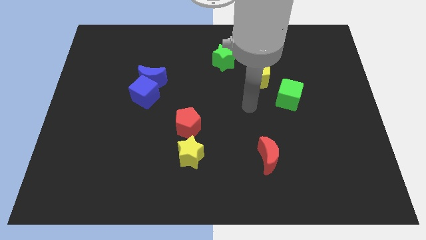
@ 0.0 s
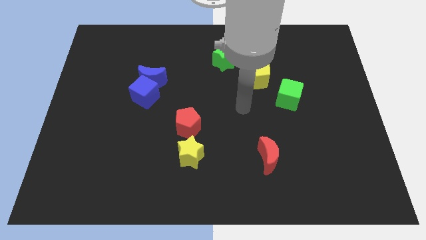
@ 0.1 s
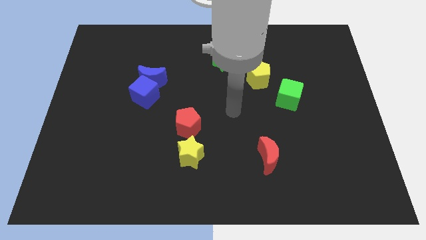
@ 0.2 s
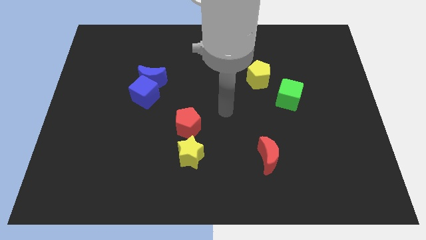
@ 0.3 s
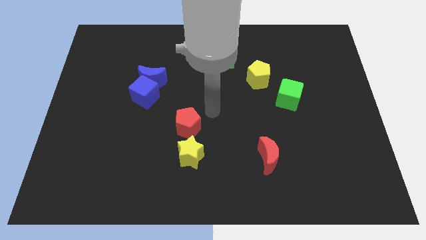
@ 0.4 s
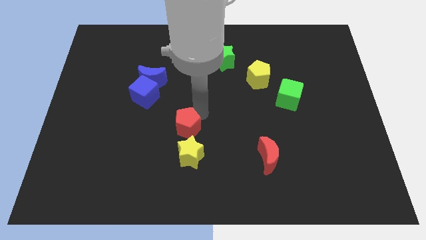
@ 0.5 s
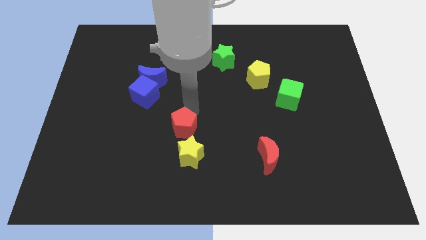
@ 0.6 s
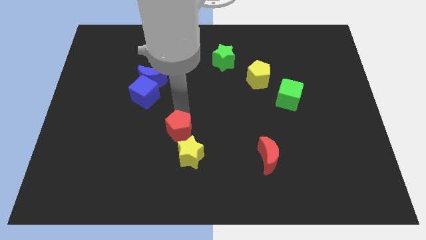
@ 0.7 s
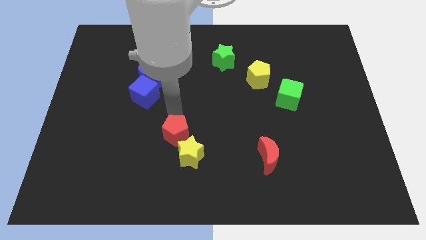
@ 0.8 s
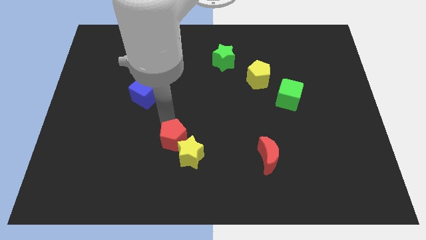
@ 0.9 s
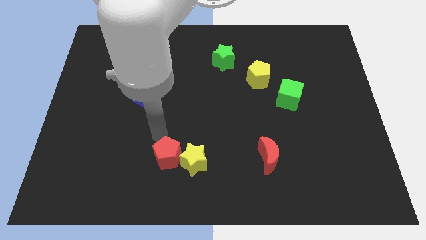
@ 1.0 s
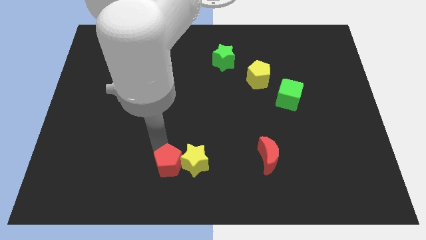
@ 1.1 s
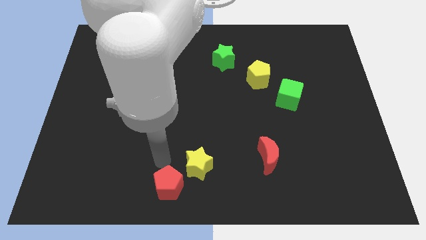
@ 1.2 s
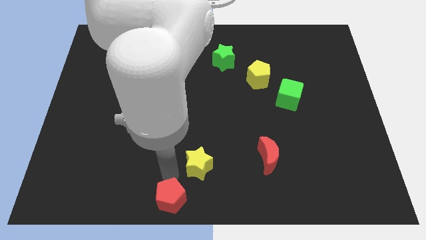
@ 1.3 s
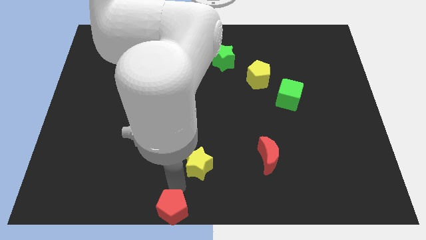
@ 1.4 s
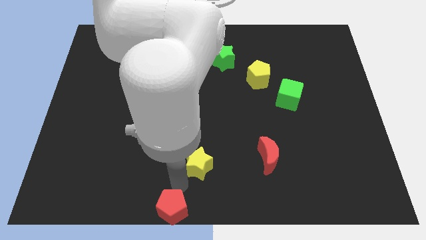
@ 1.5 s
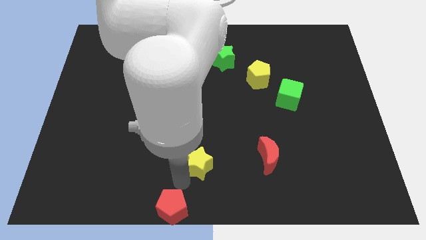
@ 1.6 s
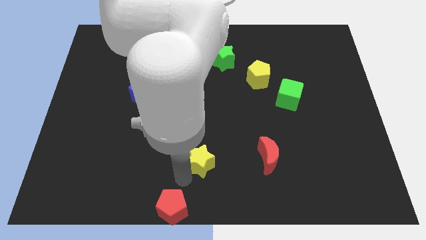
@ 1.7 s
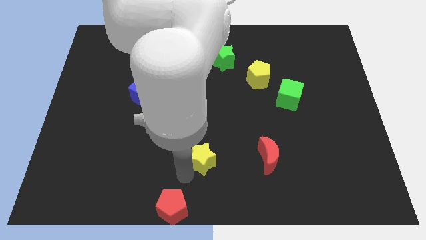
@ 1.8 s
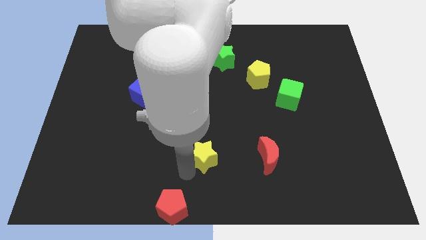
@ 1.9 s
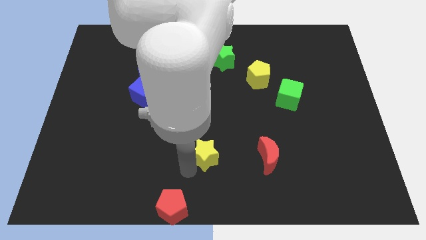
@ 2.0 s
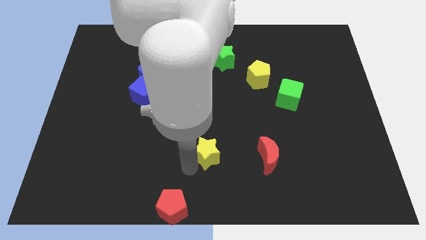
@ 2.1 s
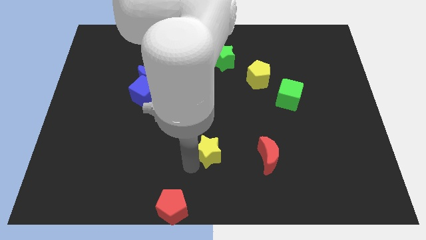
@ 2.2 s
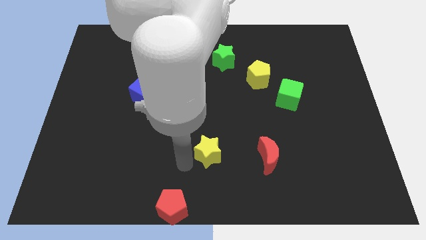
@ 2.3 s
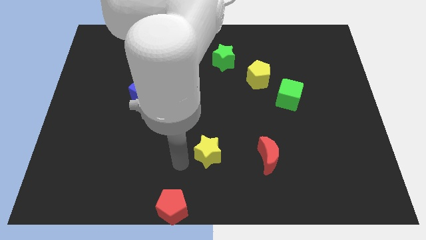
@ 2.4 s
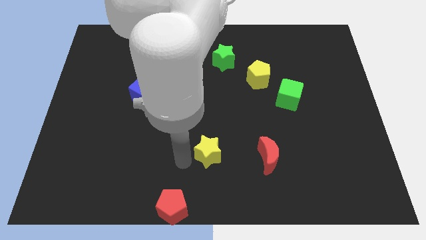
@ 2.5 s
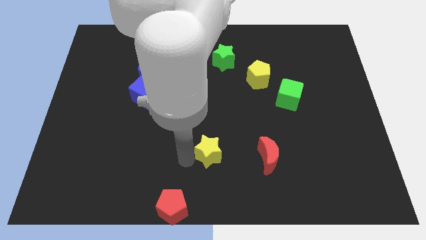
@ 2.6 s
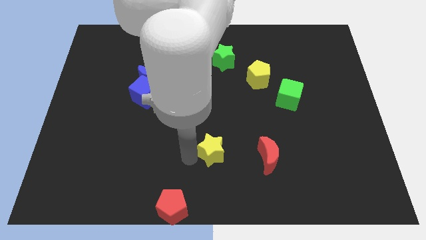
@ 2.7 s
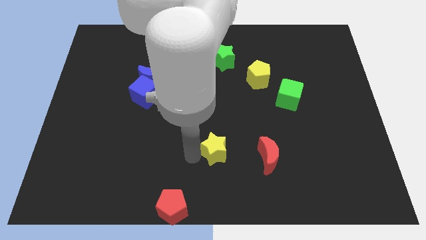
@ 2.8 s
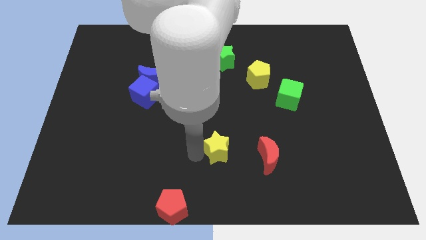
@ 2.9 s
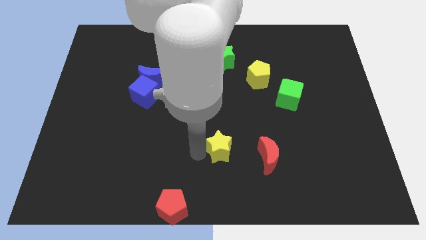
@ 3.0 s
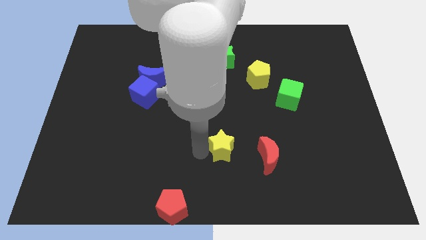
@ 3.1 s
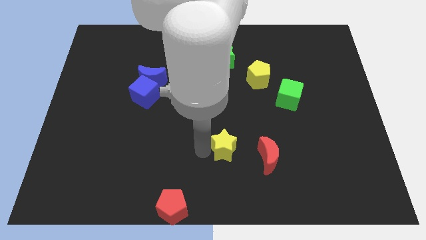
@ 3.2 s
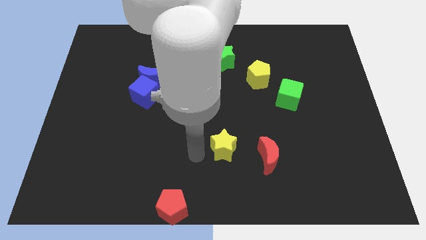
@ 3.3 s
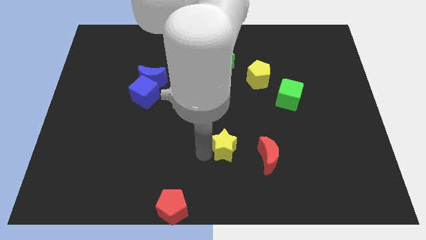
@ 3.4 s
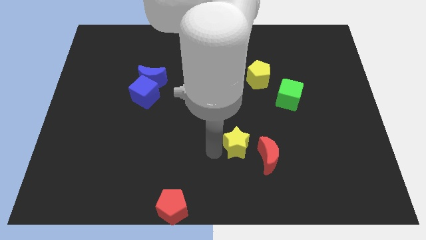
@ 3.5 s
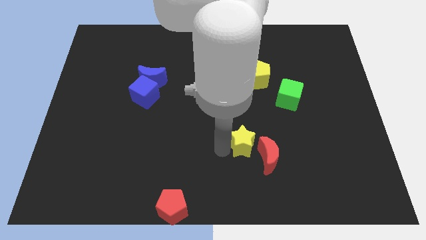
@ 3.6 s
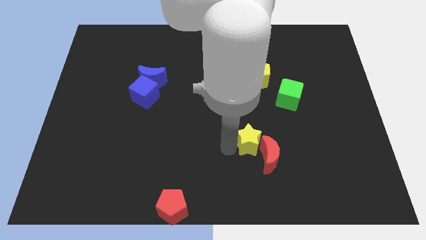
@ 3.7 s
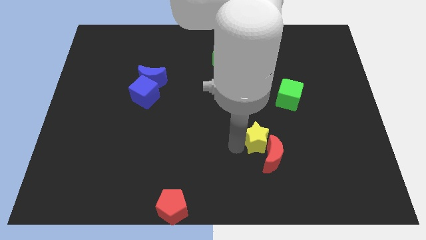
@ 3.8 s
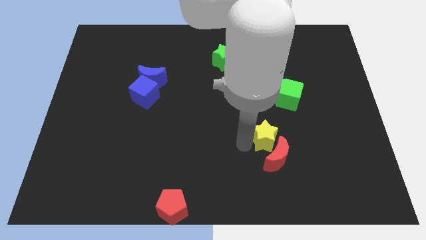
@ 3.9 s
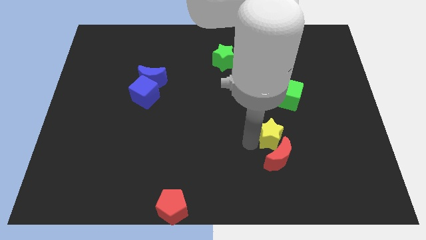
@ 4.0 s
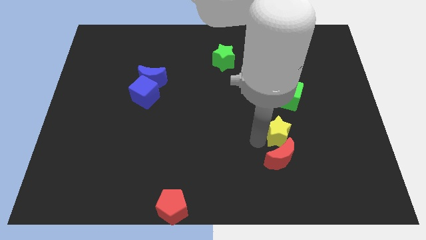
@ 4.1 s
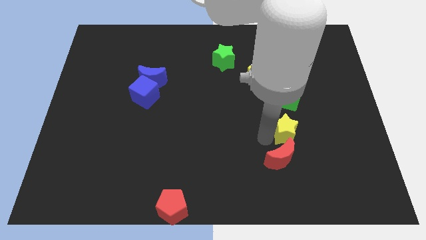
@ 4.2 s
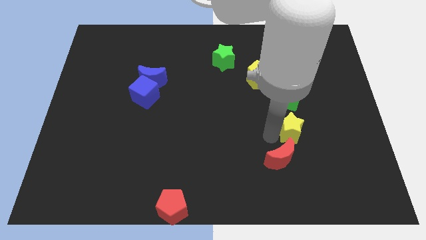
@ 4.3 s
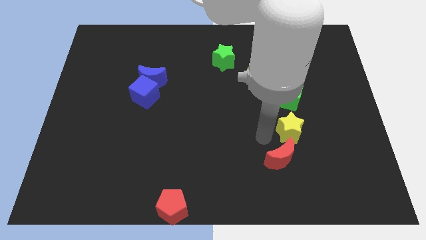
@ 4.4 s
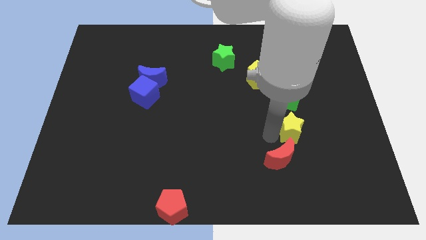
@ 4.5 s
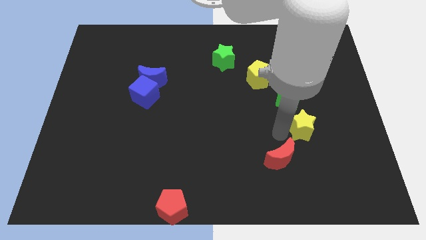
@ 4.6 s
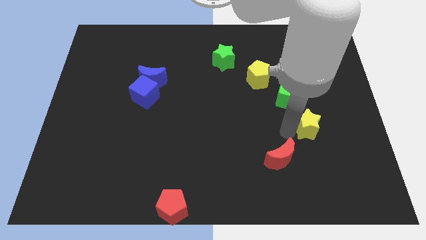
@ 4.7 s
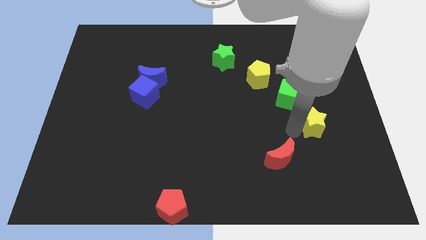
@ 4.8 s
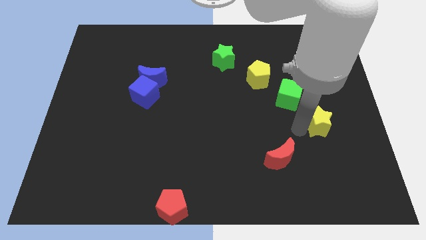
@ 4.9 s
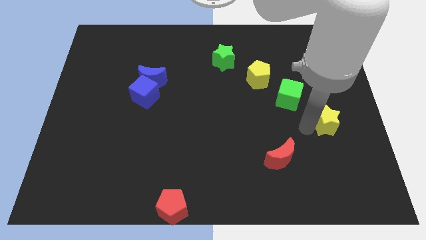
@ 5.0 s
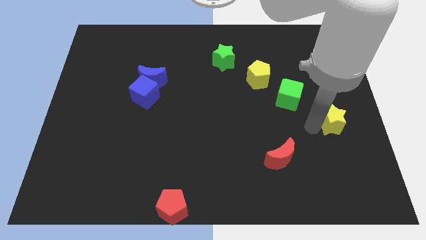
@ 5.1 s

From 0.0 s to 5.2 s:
push the yellow star to the center right

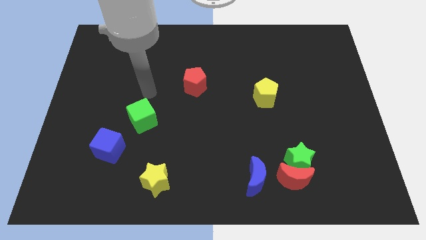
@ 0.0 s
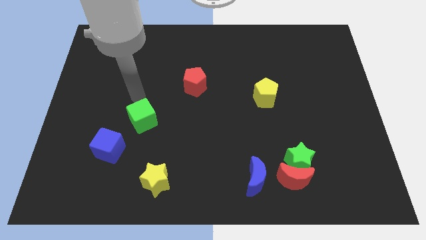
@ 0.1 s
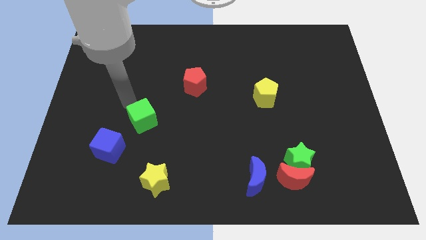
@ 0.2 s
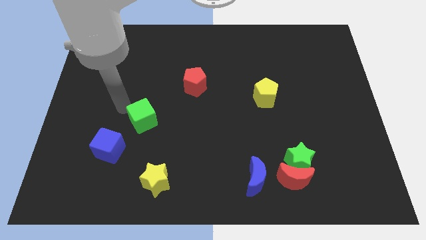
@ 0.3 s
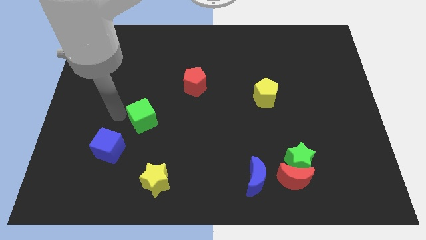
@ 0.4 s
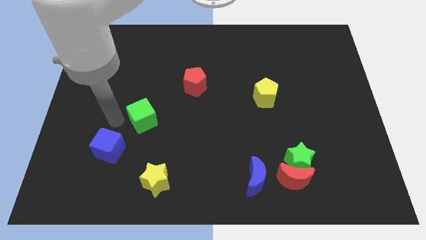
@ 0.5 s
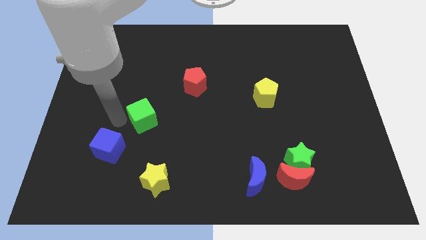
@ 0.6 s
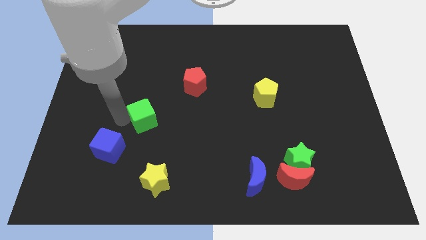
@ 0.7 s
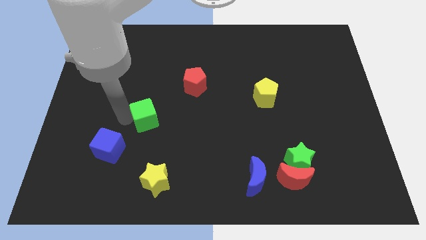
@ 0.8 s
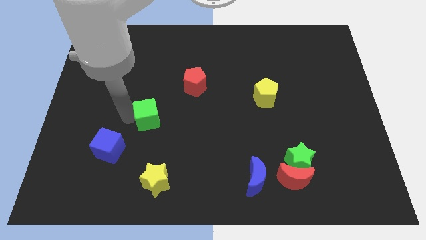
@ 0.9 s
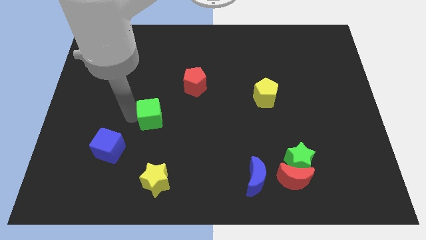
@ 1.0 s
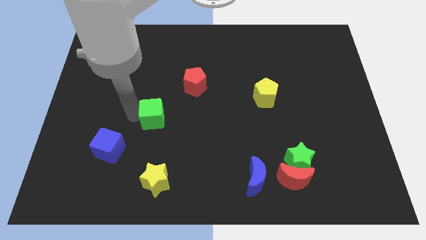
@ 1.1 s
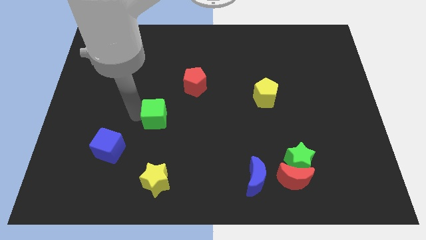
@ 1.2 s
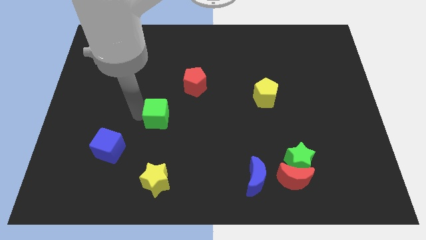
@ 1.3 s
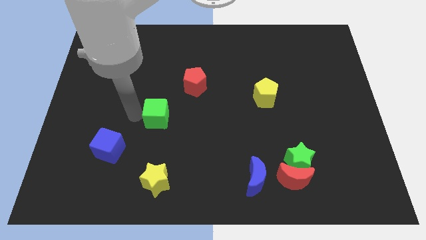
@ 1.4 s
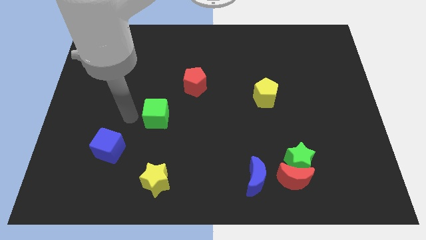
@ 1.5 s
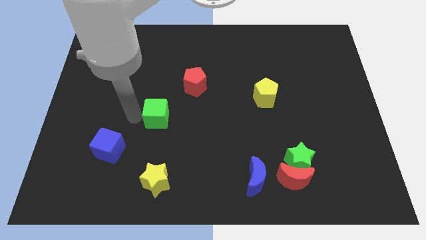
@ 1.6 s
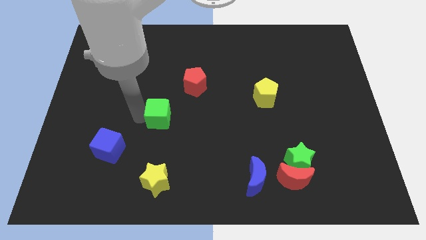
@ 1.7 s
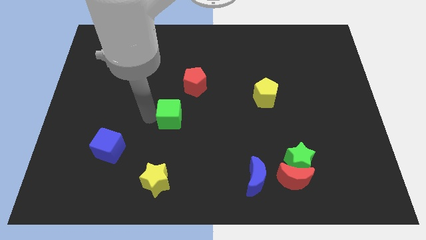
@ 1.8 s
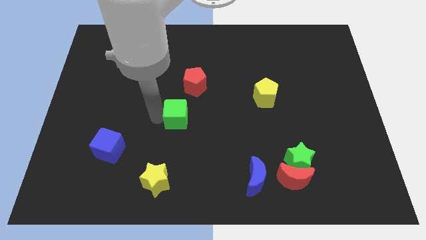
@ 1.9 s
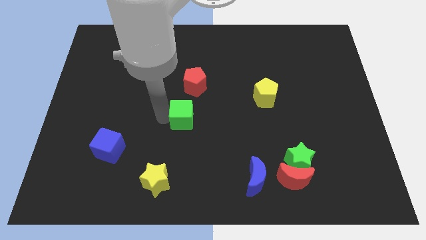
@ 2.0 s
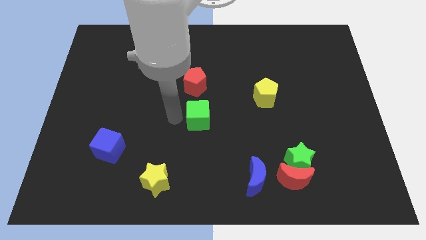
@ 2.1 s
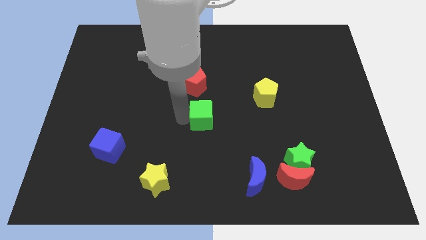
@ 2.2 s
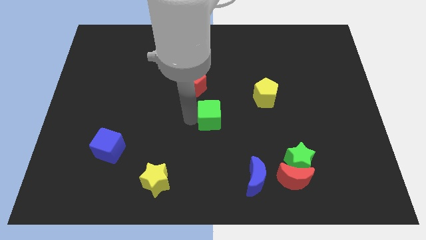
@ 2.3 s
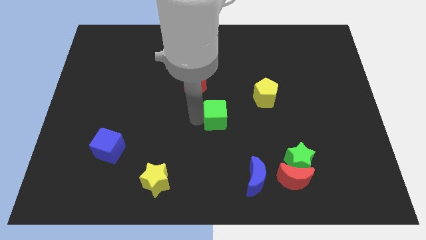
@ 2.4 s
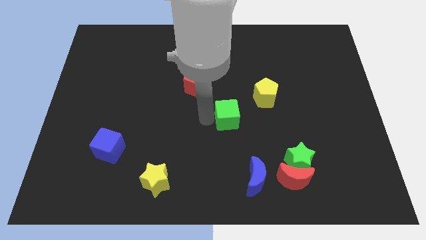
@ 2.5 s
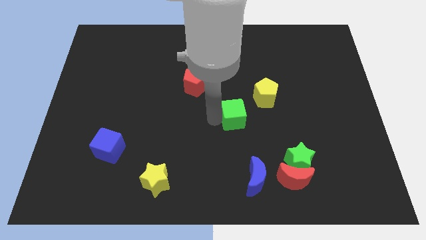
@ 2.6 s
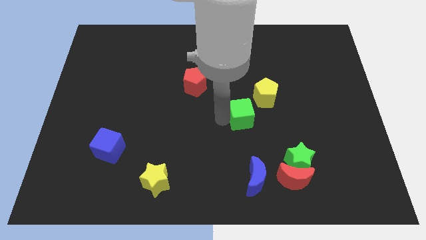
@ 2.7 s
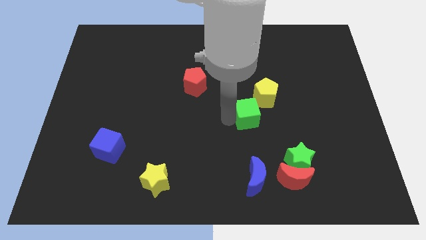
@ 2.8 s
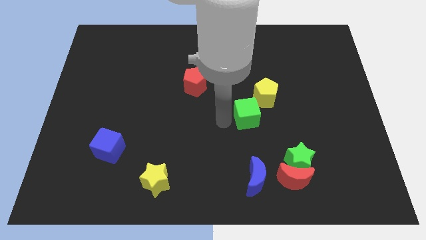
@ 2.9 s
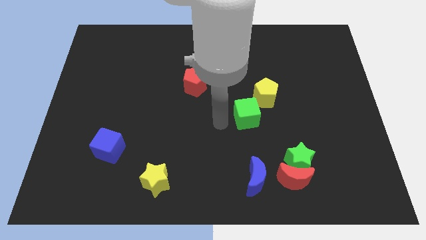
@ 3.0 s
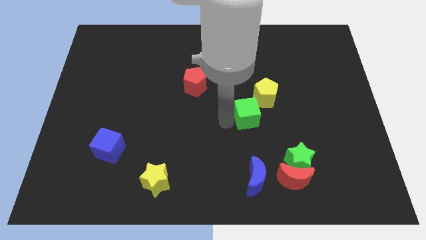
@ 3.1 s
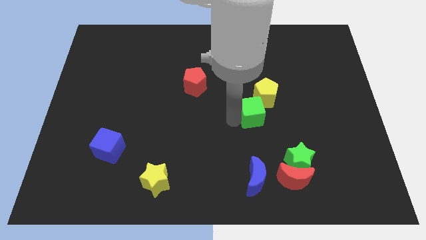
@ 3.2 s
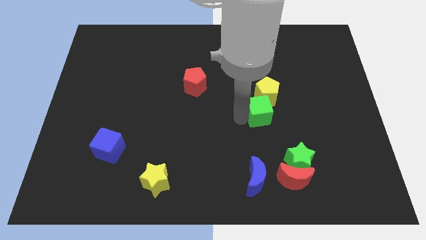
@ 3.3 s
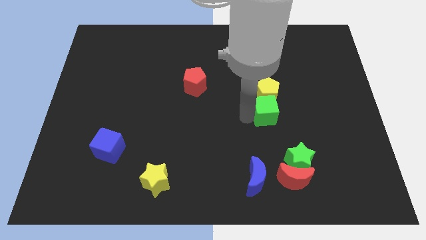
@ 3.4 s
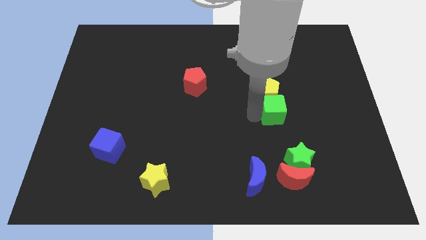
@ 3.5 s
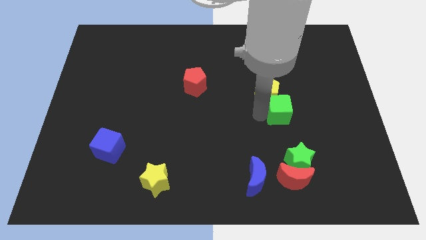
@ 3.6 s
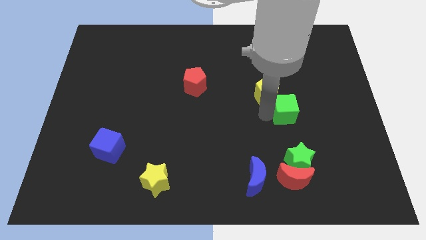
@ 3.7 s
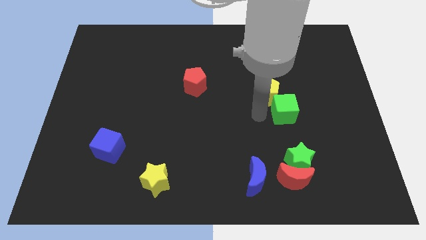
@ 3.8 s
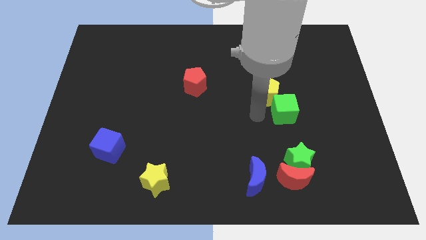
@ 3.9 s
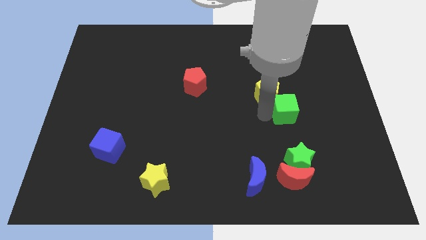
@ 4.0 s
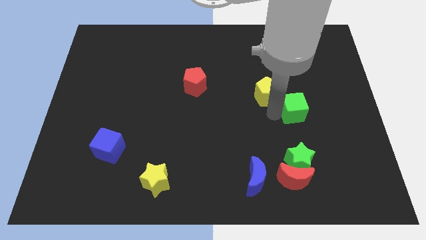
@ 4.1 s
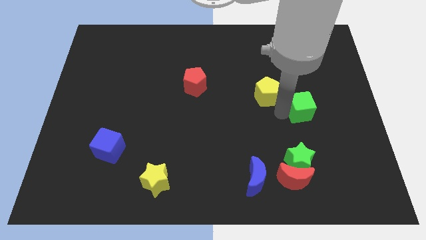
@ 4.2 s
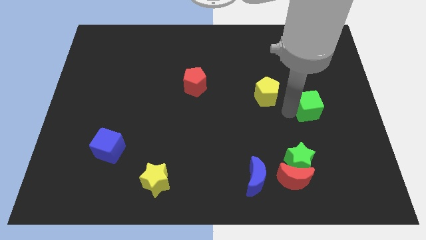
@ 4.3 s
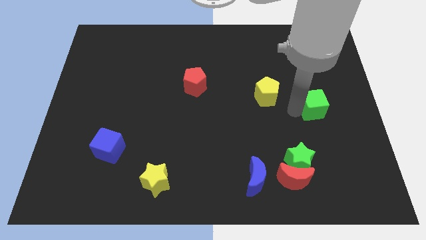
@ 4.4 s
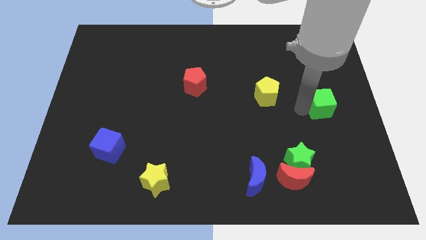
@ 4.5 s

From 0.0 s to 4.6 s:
slide the green cube to the right side
